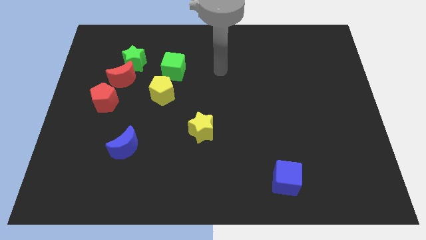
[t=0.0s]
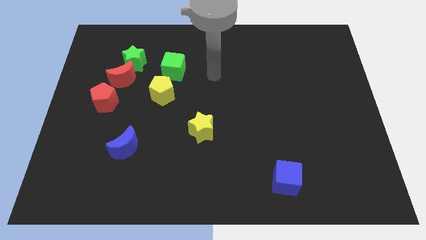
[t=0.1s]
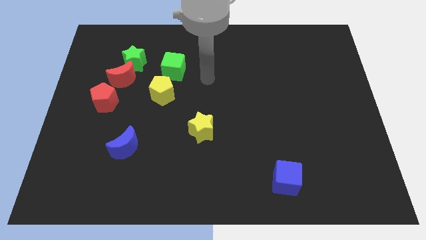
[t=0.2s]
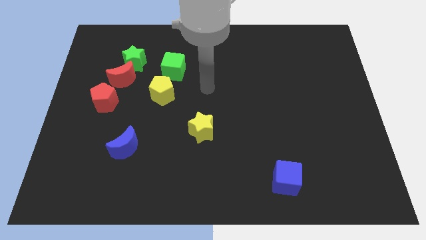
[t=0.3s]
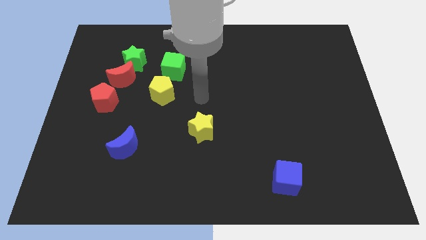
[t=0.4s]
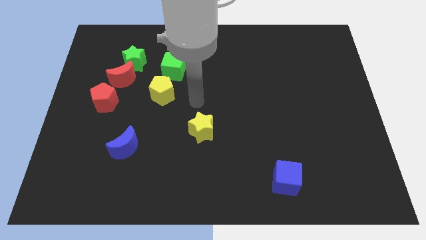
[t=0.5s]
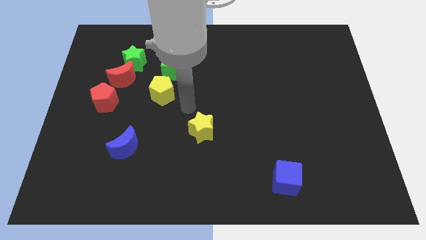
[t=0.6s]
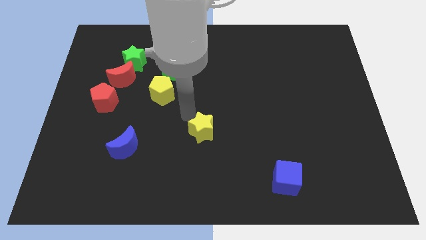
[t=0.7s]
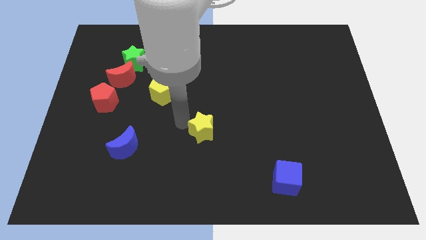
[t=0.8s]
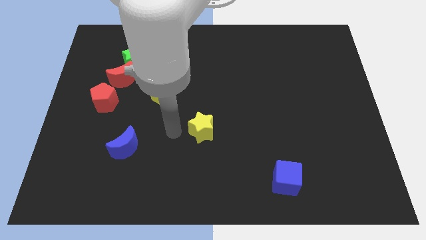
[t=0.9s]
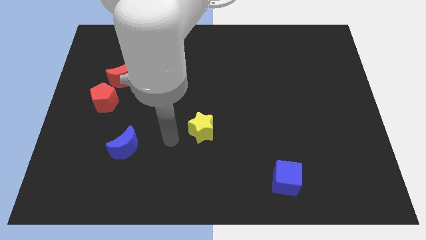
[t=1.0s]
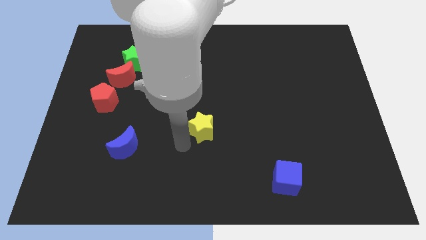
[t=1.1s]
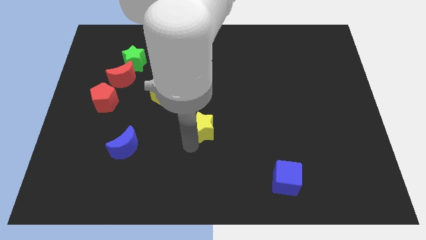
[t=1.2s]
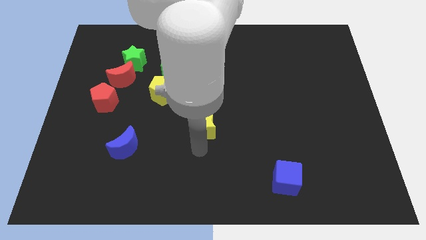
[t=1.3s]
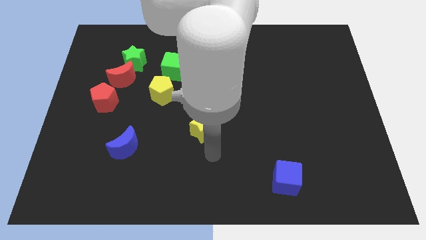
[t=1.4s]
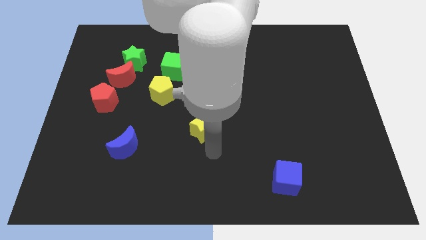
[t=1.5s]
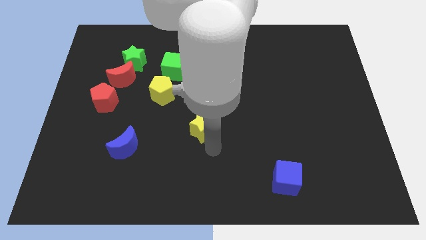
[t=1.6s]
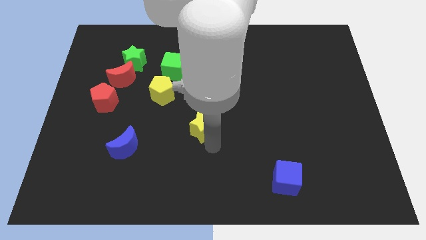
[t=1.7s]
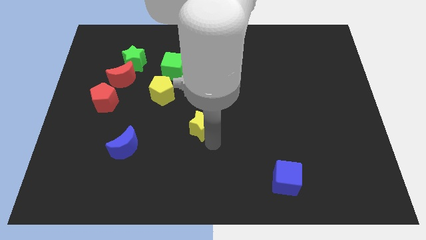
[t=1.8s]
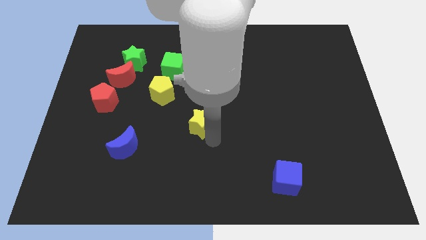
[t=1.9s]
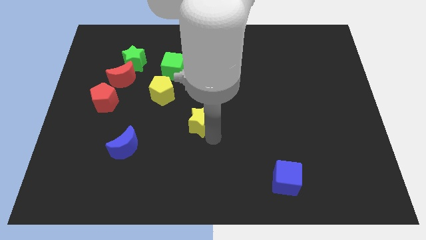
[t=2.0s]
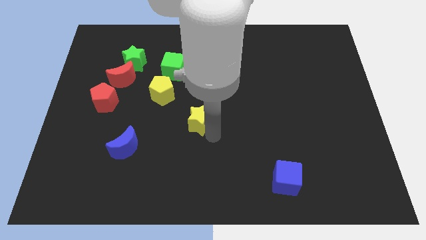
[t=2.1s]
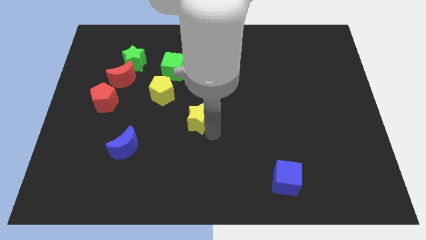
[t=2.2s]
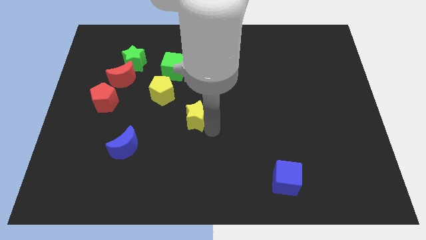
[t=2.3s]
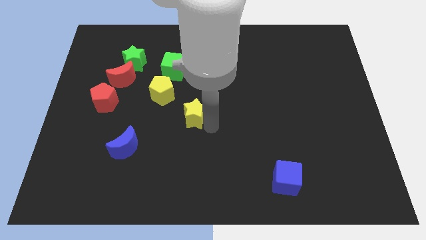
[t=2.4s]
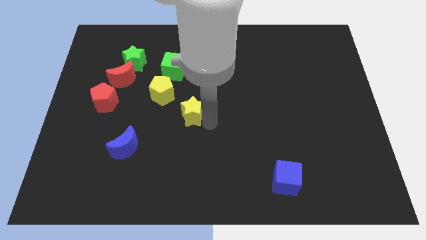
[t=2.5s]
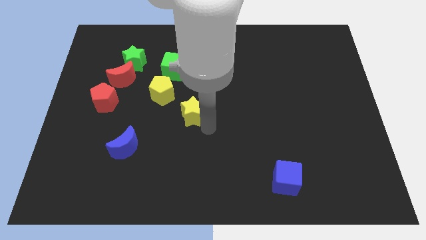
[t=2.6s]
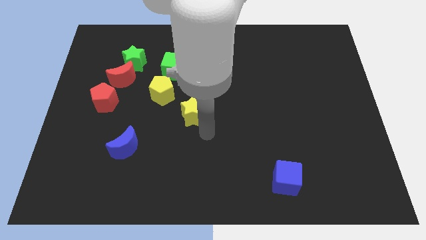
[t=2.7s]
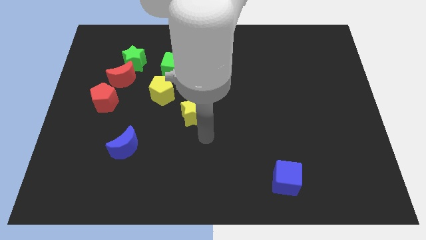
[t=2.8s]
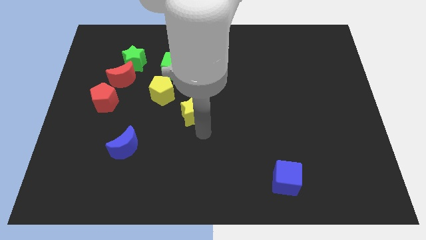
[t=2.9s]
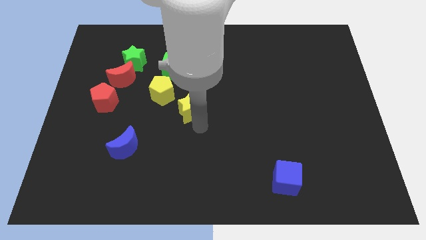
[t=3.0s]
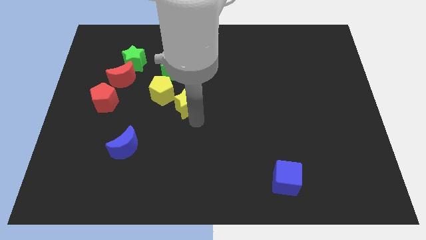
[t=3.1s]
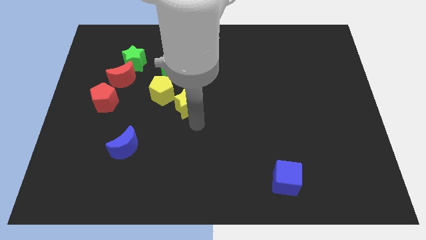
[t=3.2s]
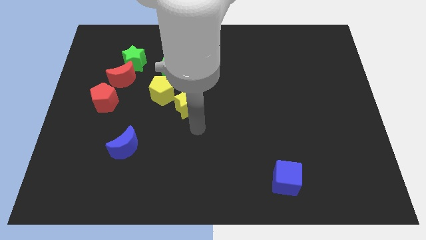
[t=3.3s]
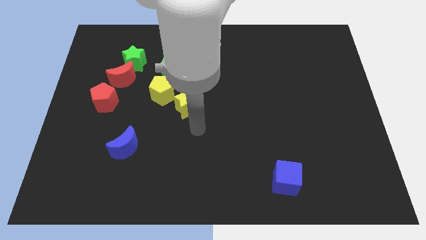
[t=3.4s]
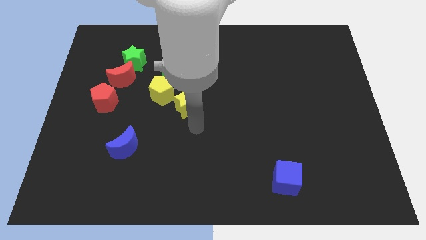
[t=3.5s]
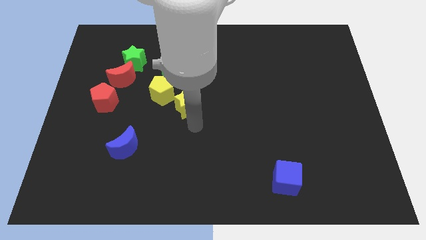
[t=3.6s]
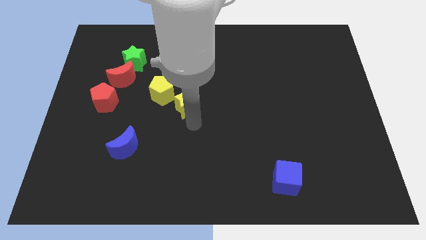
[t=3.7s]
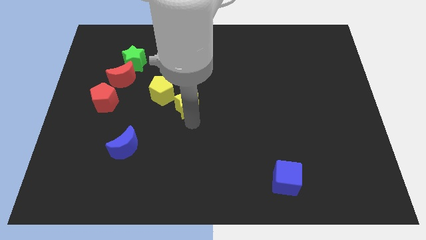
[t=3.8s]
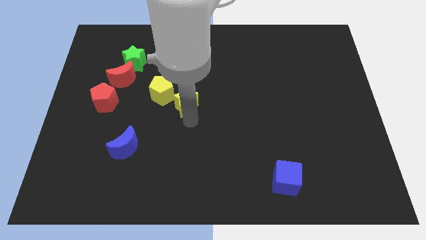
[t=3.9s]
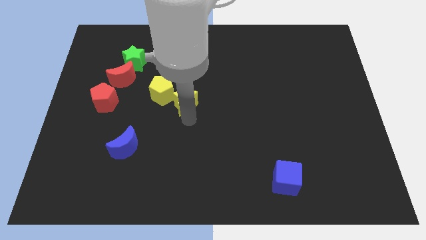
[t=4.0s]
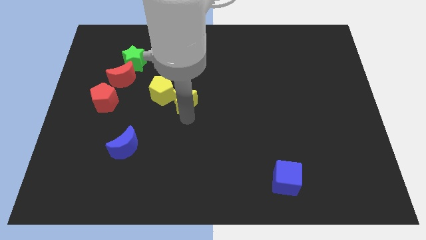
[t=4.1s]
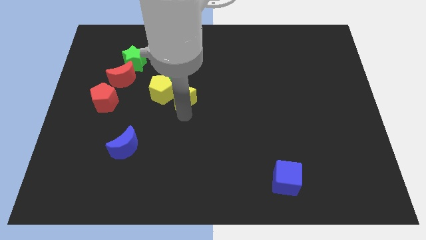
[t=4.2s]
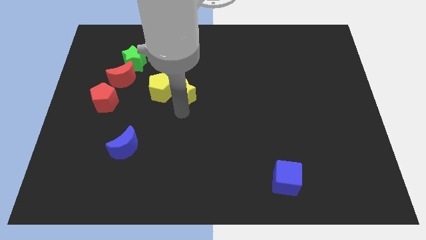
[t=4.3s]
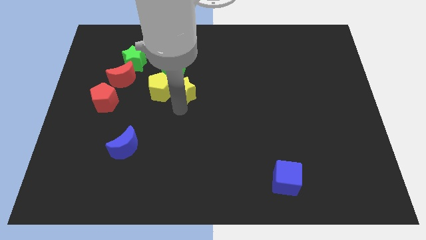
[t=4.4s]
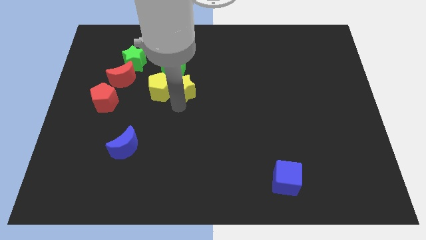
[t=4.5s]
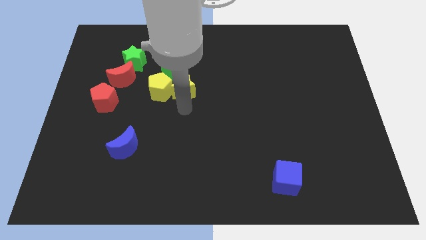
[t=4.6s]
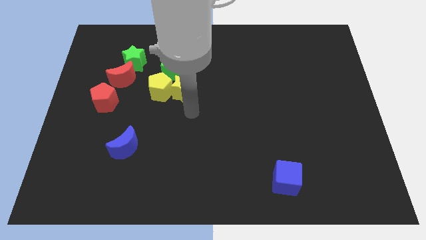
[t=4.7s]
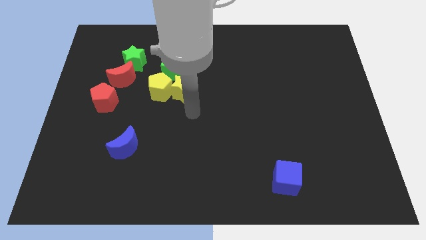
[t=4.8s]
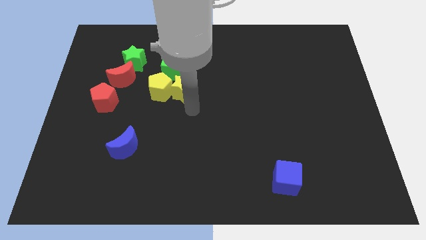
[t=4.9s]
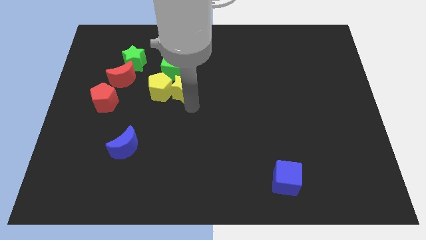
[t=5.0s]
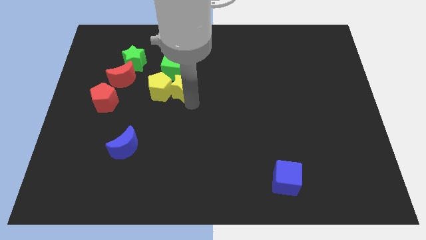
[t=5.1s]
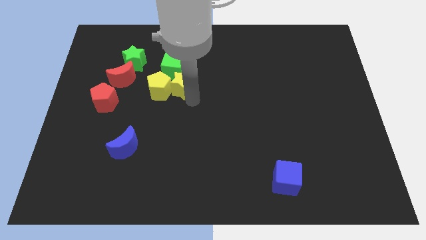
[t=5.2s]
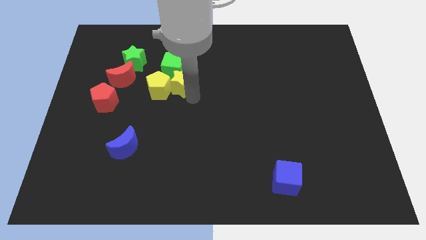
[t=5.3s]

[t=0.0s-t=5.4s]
put the yellow star next to the green cube

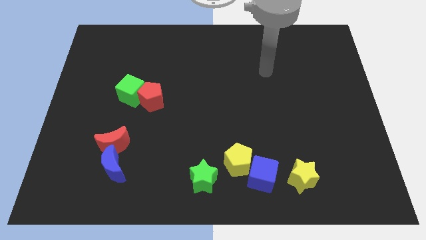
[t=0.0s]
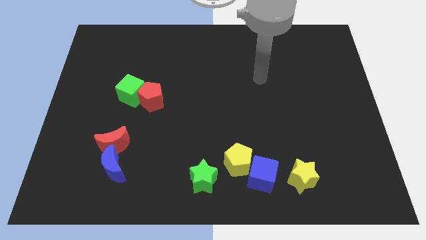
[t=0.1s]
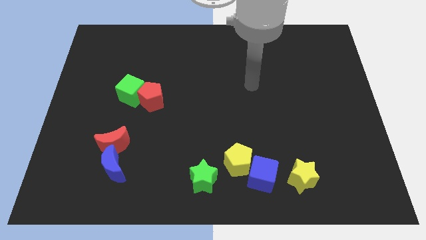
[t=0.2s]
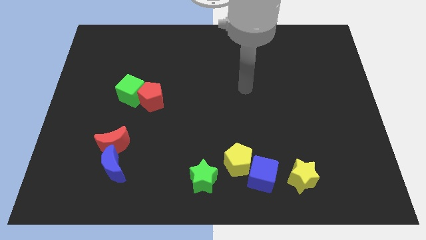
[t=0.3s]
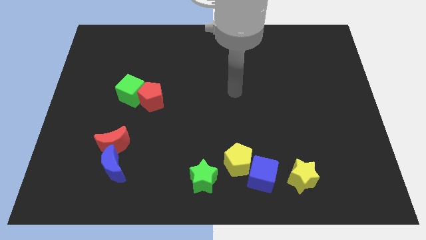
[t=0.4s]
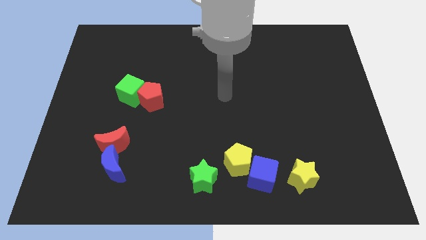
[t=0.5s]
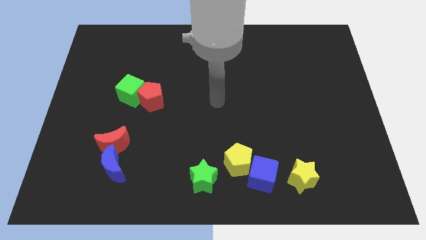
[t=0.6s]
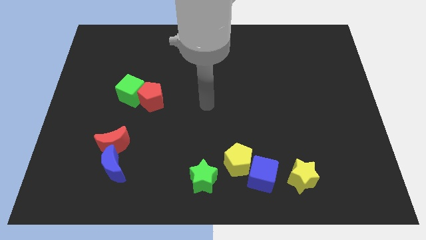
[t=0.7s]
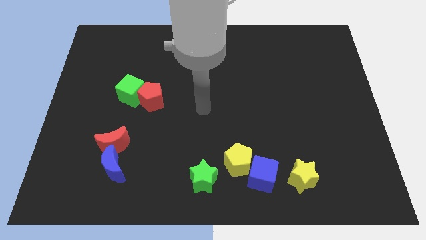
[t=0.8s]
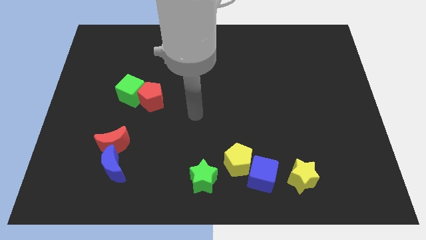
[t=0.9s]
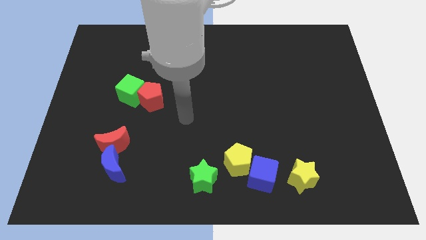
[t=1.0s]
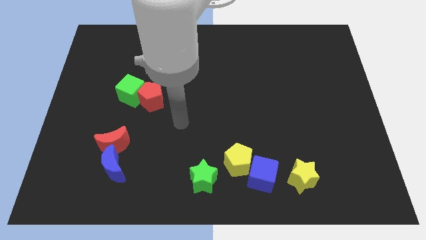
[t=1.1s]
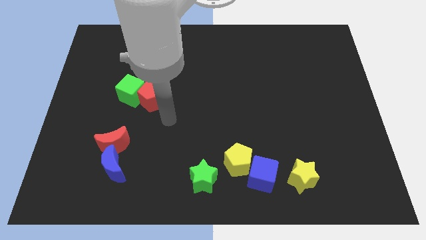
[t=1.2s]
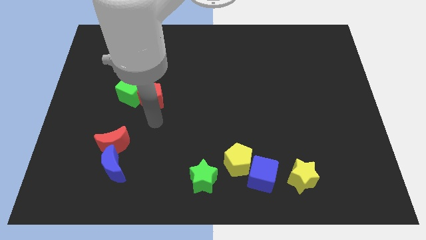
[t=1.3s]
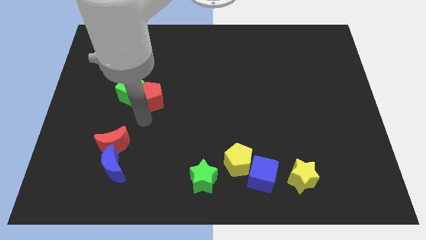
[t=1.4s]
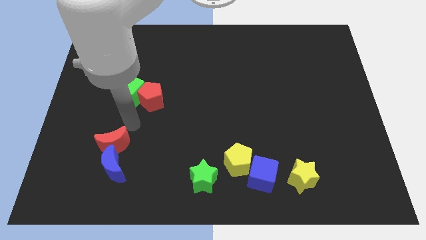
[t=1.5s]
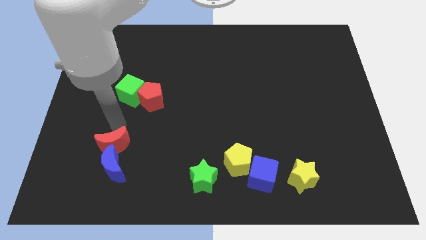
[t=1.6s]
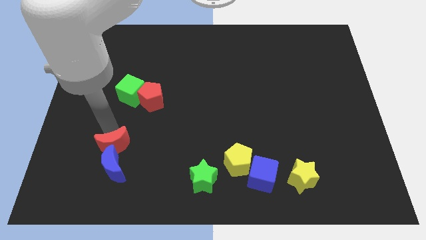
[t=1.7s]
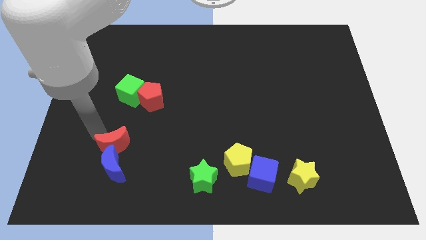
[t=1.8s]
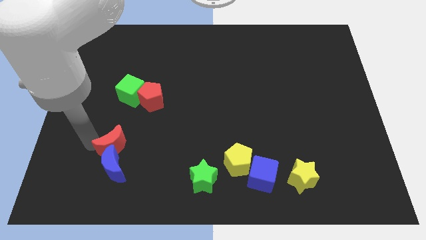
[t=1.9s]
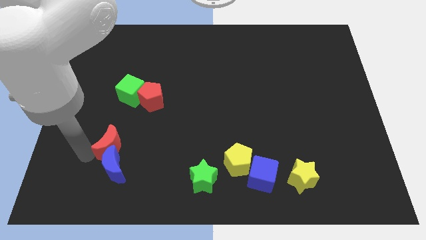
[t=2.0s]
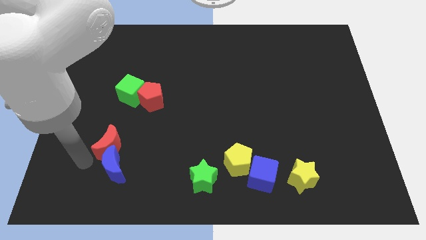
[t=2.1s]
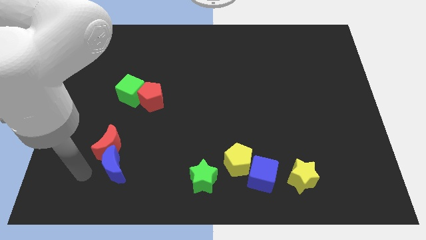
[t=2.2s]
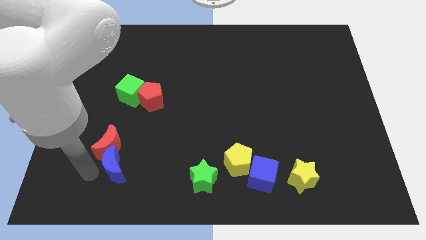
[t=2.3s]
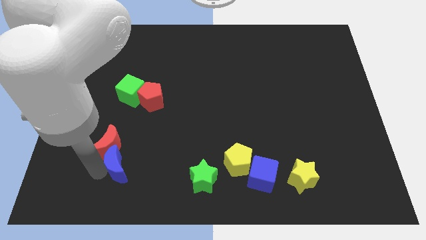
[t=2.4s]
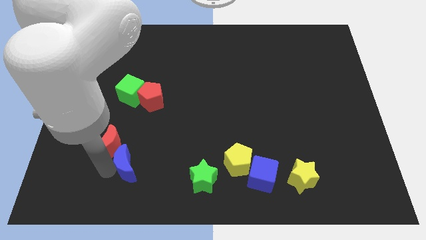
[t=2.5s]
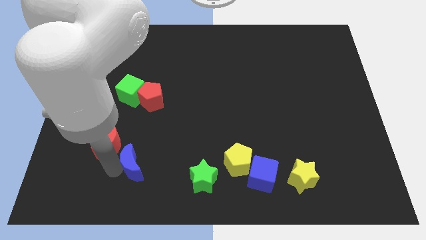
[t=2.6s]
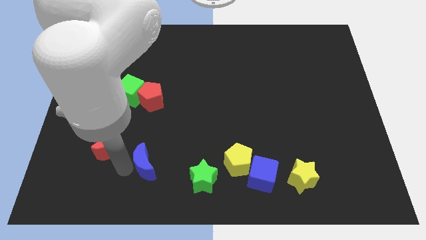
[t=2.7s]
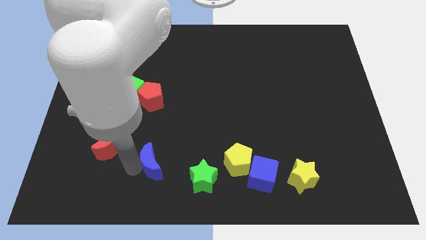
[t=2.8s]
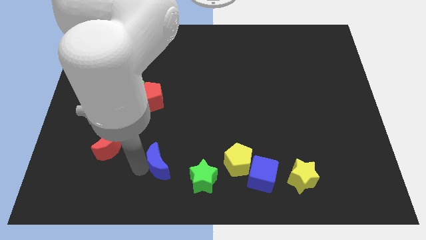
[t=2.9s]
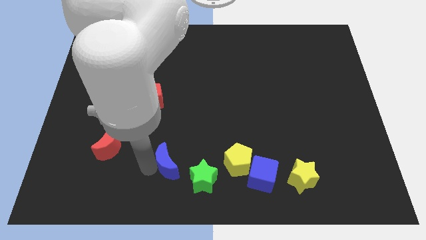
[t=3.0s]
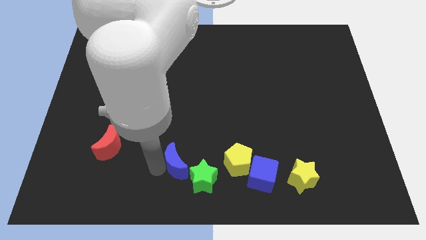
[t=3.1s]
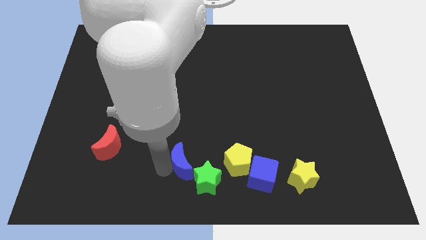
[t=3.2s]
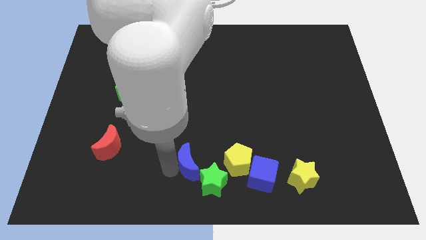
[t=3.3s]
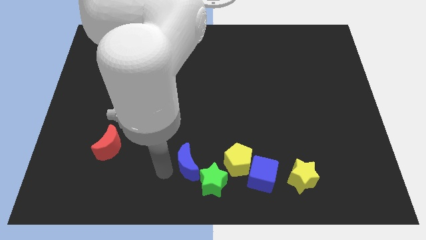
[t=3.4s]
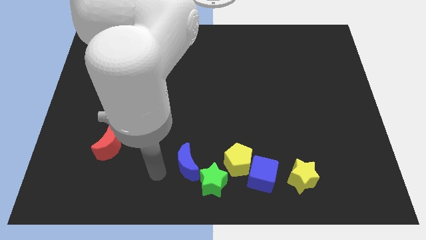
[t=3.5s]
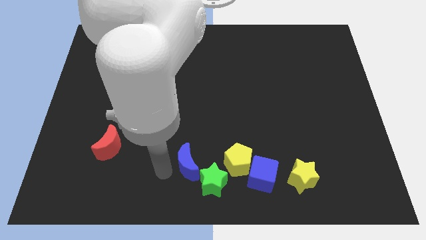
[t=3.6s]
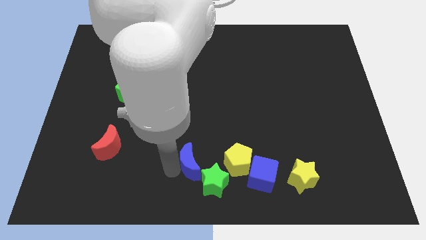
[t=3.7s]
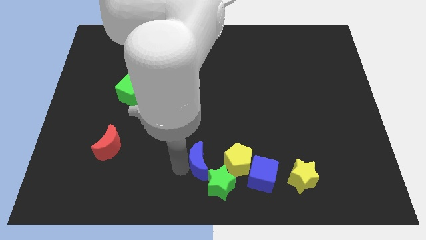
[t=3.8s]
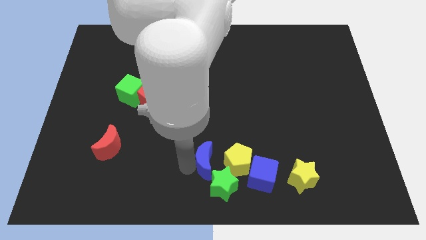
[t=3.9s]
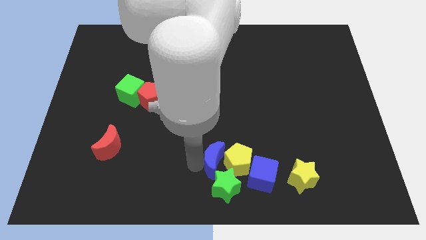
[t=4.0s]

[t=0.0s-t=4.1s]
move the blue moon to the yellow pentagon
